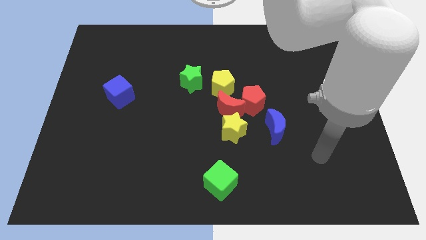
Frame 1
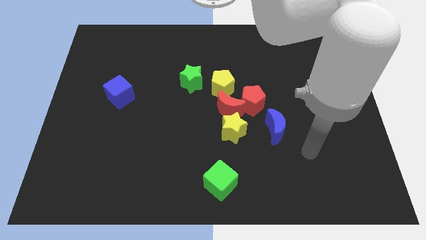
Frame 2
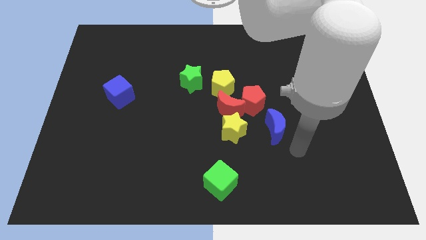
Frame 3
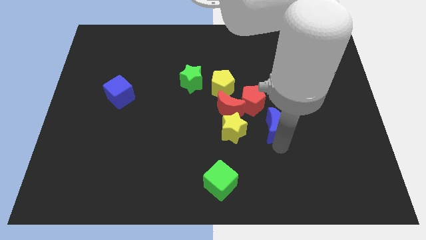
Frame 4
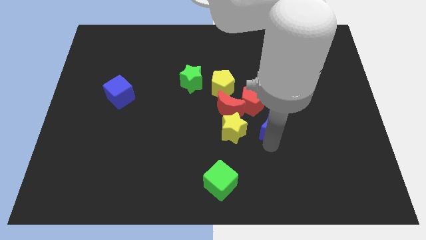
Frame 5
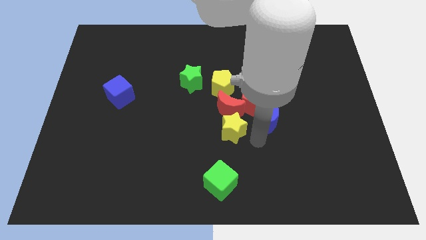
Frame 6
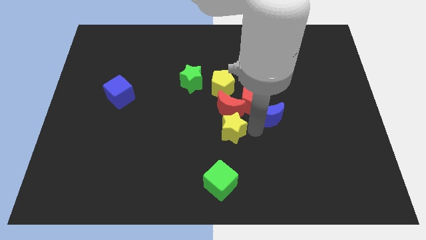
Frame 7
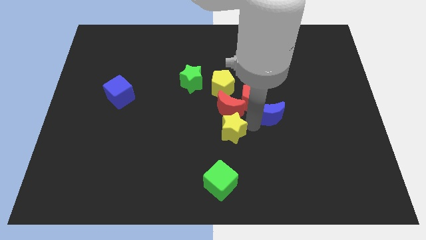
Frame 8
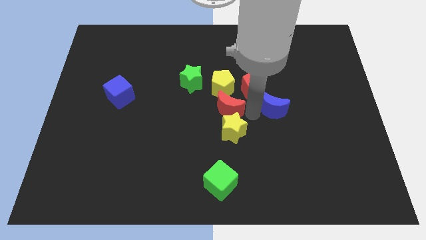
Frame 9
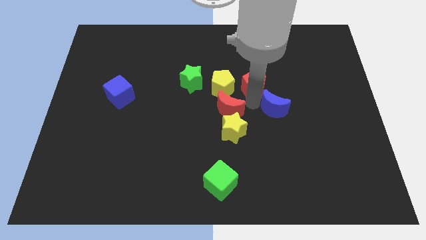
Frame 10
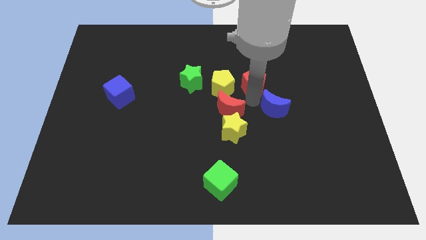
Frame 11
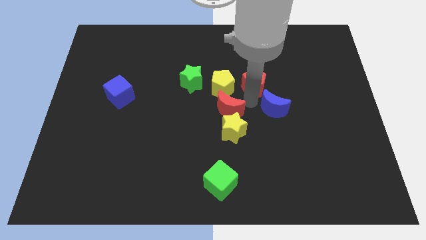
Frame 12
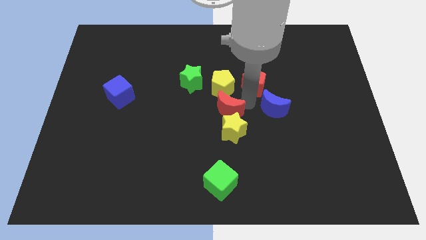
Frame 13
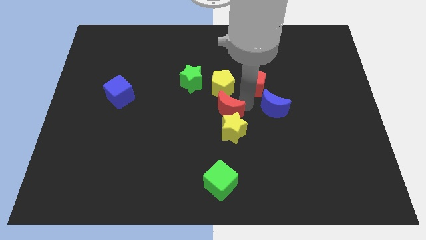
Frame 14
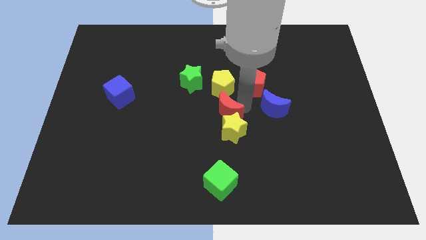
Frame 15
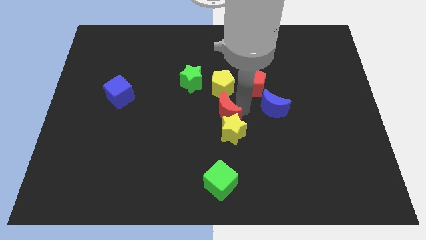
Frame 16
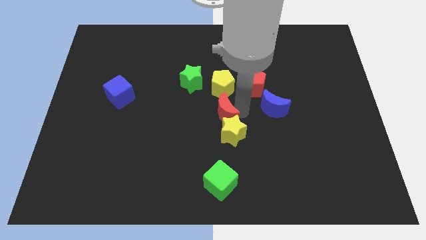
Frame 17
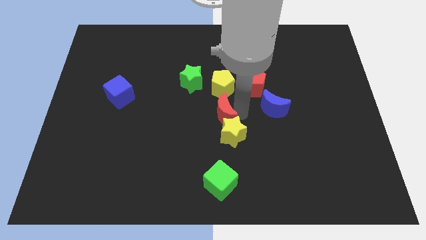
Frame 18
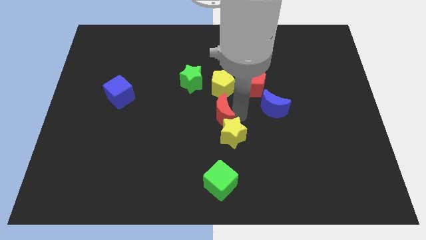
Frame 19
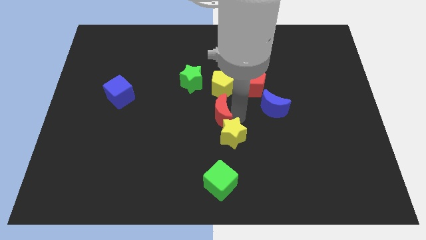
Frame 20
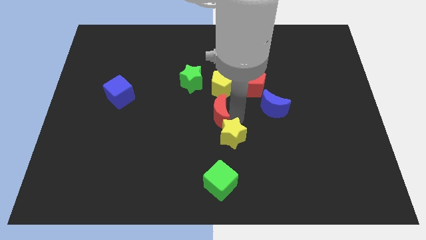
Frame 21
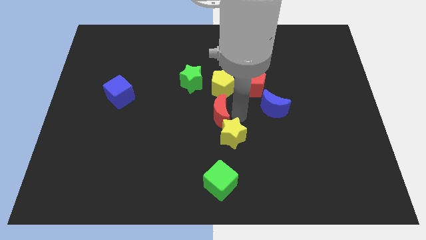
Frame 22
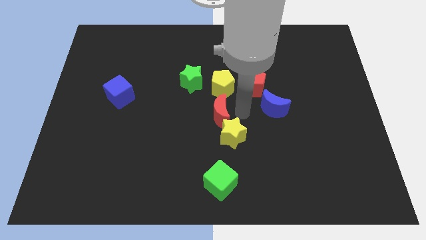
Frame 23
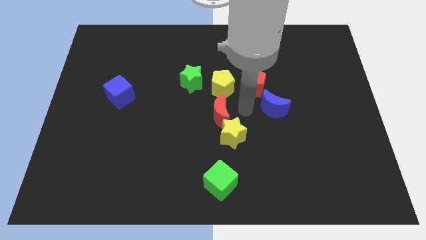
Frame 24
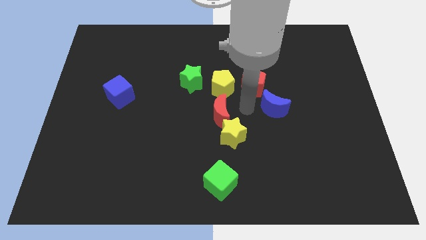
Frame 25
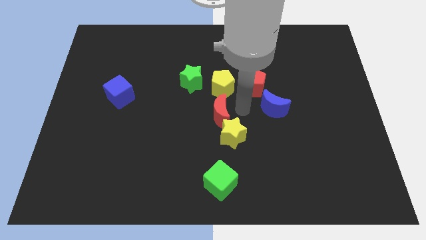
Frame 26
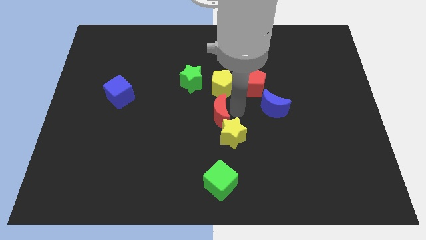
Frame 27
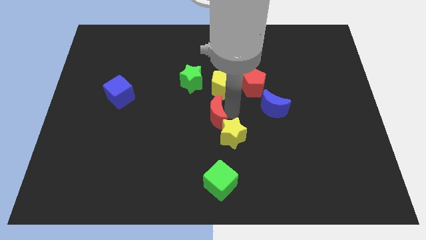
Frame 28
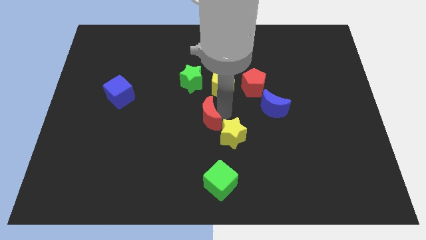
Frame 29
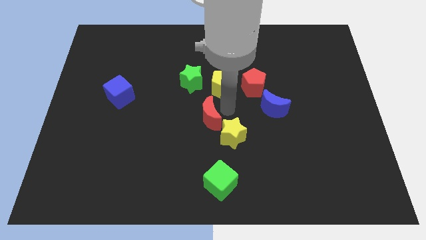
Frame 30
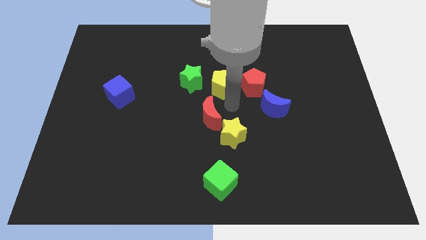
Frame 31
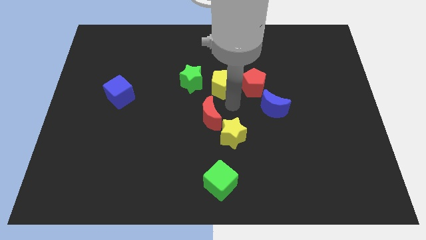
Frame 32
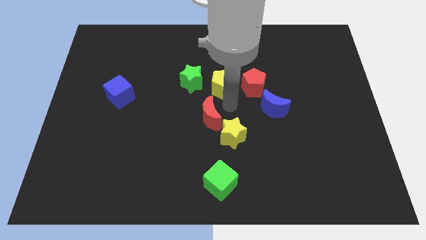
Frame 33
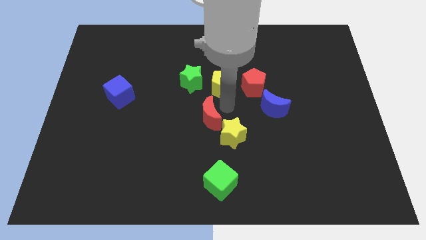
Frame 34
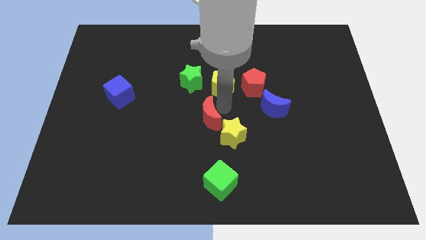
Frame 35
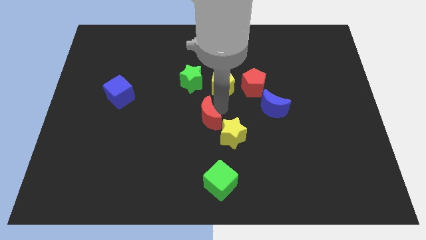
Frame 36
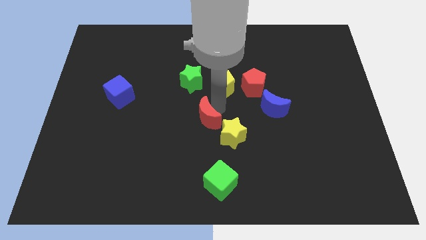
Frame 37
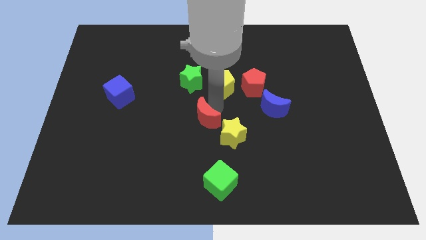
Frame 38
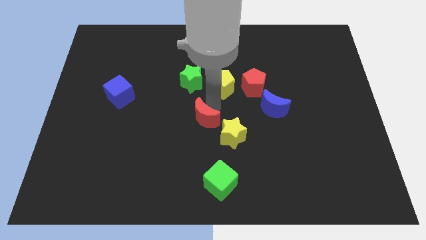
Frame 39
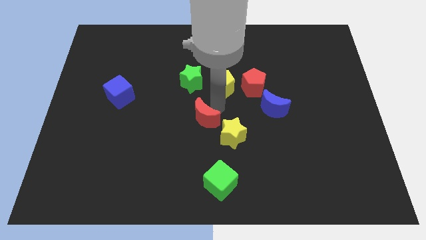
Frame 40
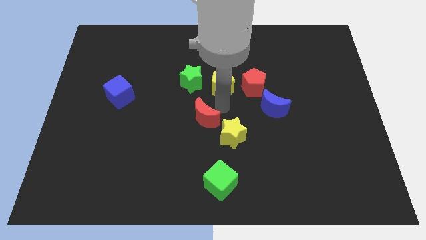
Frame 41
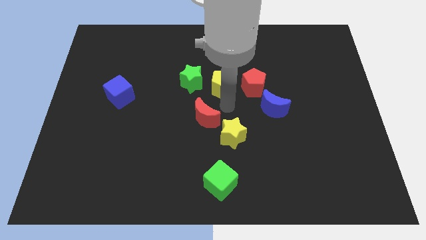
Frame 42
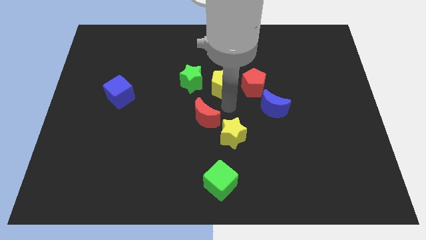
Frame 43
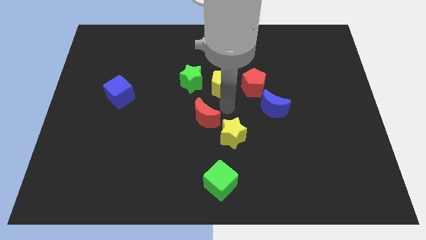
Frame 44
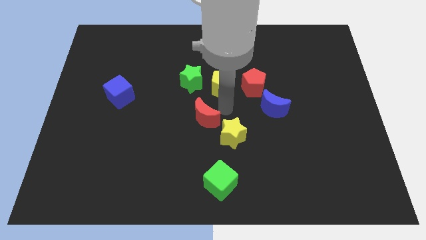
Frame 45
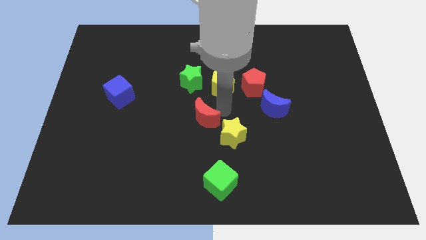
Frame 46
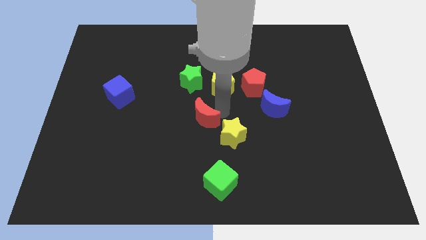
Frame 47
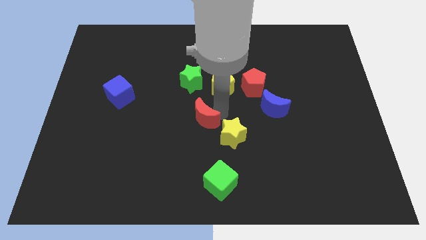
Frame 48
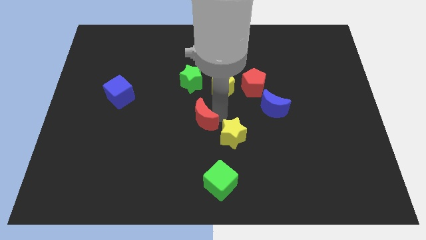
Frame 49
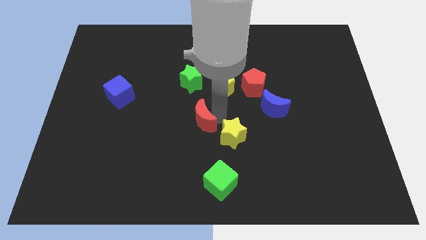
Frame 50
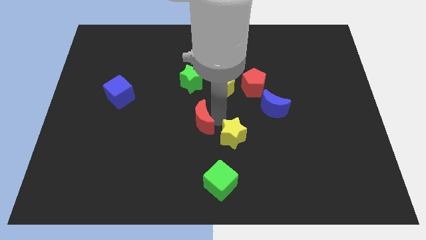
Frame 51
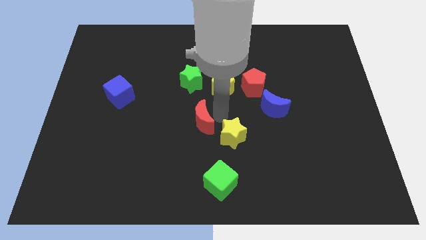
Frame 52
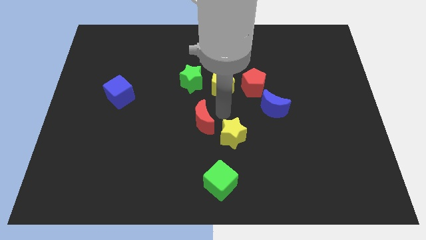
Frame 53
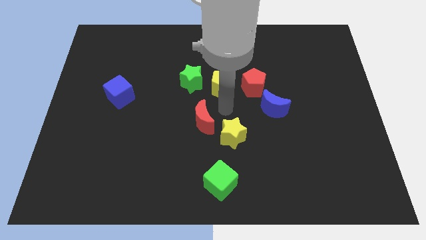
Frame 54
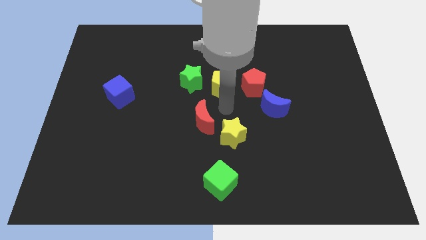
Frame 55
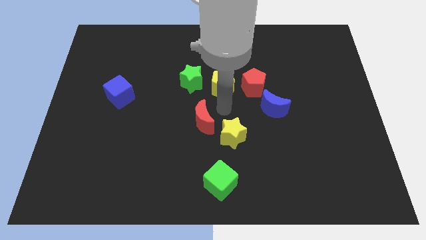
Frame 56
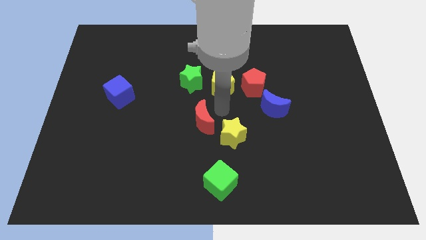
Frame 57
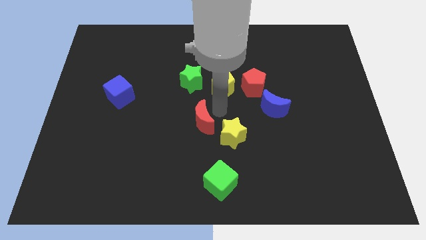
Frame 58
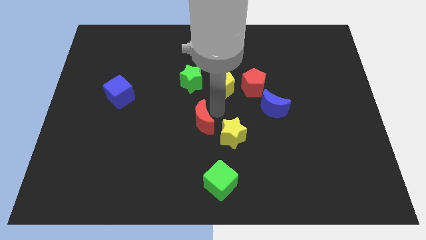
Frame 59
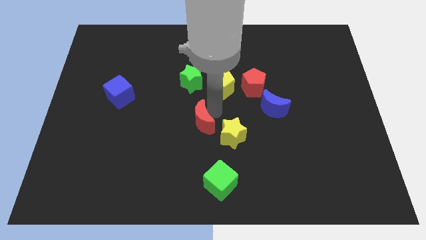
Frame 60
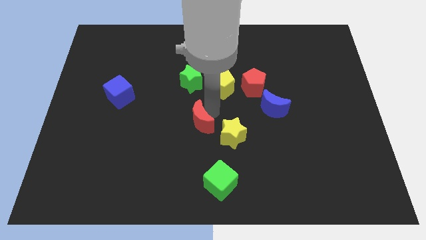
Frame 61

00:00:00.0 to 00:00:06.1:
separate the red moon from the red pentagon, yellow star, and yellow pentagon

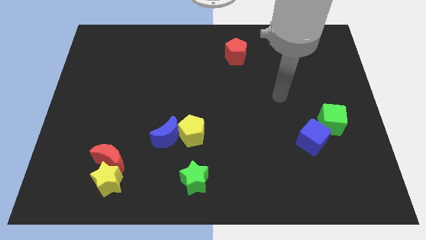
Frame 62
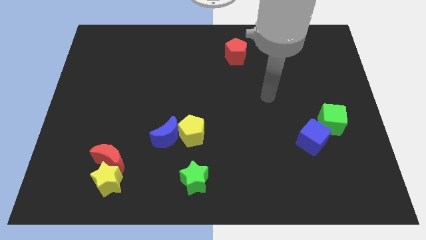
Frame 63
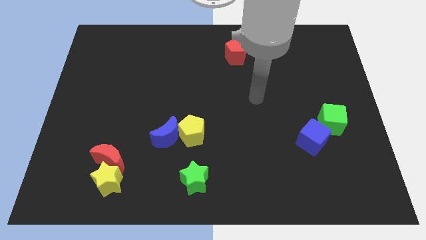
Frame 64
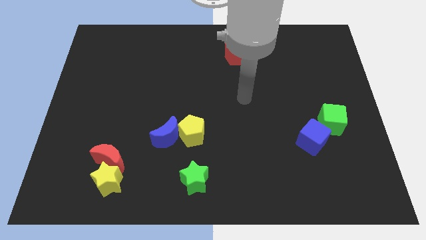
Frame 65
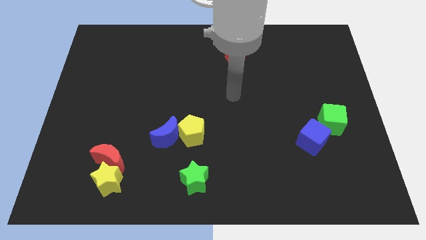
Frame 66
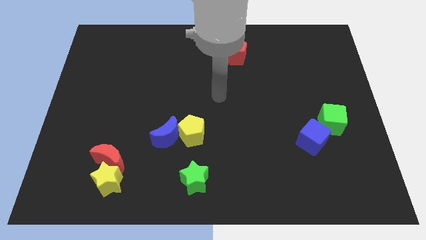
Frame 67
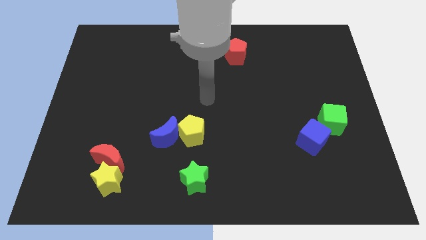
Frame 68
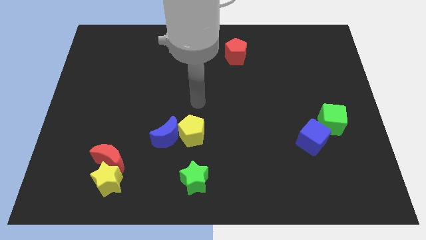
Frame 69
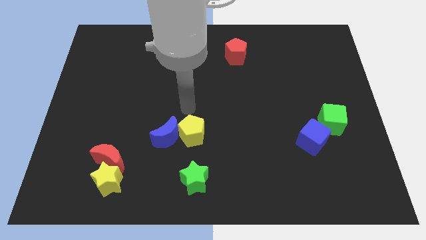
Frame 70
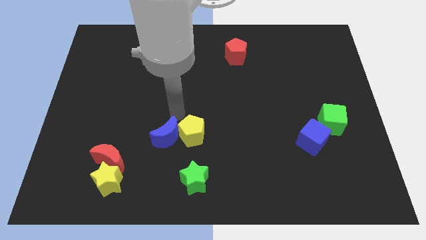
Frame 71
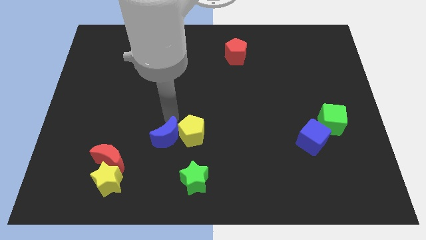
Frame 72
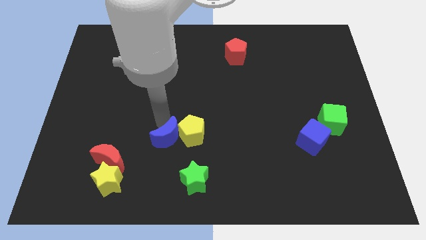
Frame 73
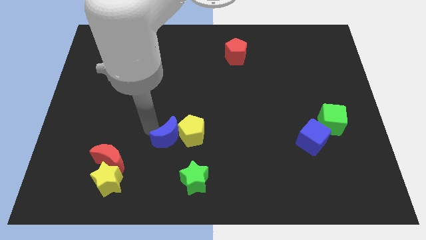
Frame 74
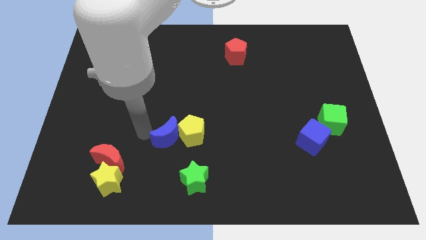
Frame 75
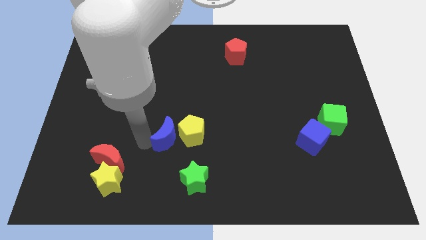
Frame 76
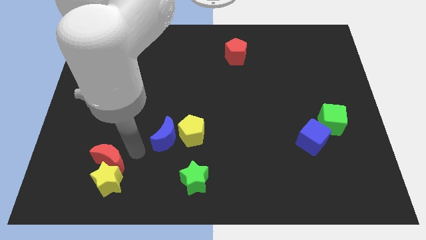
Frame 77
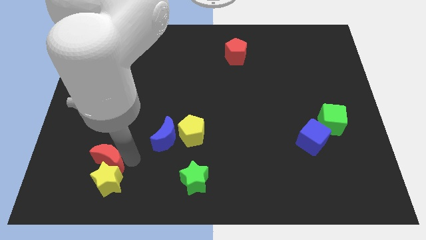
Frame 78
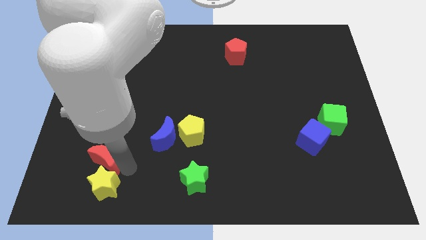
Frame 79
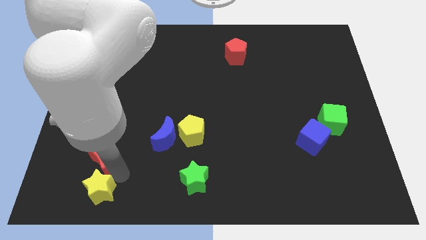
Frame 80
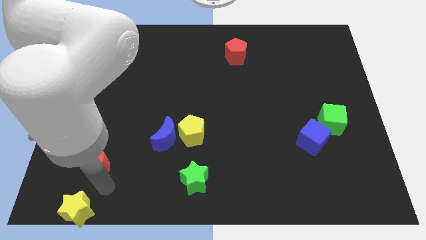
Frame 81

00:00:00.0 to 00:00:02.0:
move the red moon away from the yellow star

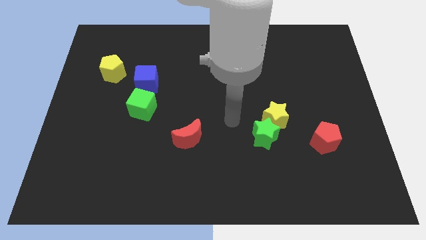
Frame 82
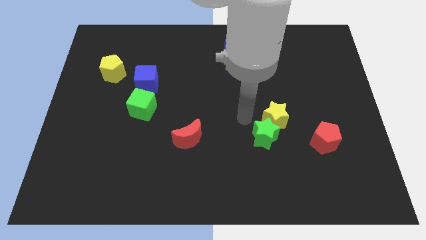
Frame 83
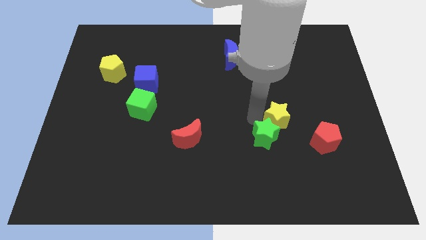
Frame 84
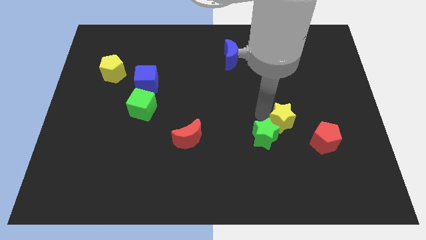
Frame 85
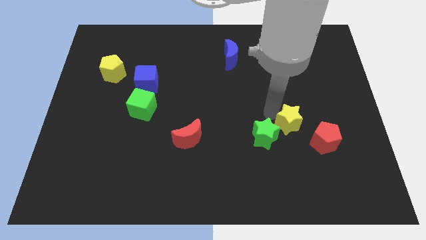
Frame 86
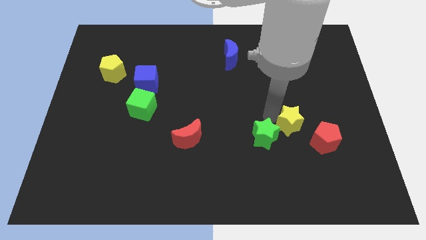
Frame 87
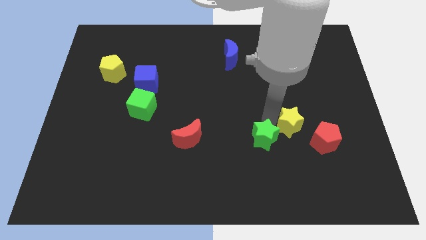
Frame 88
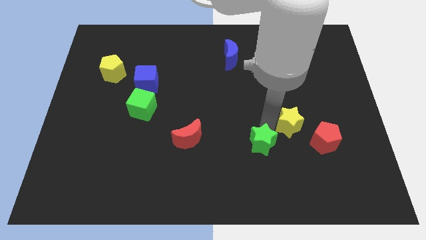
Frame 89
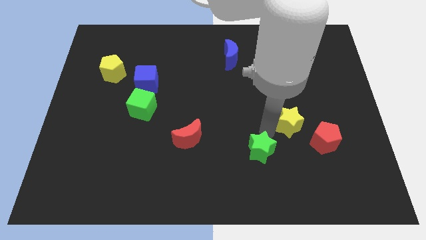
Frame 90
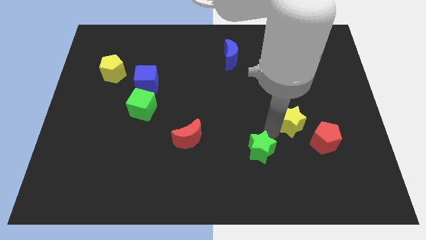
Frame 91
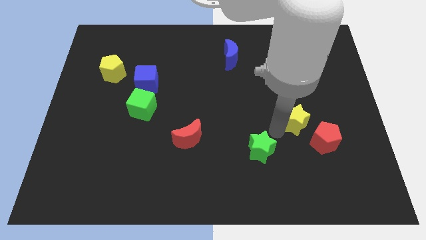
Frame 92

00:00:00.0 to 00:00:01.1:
separate the green star from the yellow star
